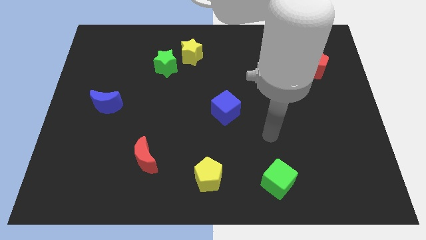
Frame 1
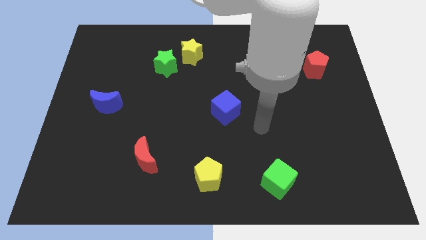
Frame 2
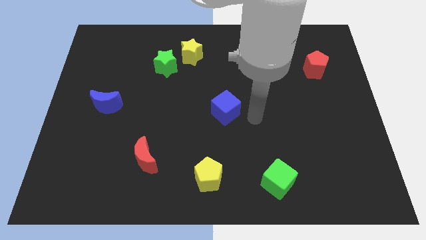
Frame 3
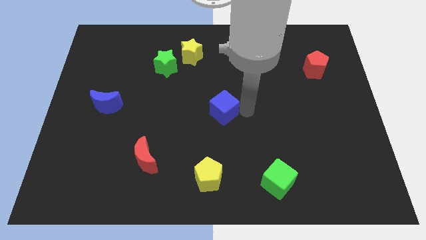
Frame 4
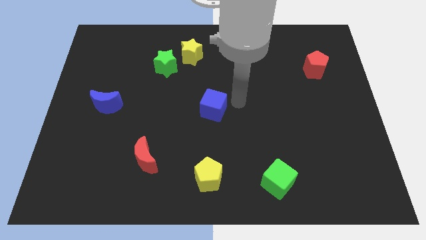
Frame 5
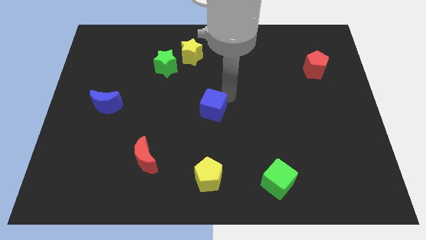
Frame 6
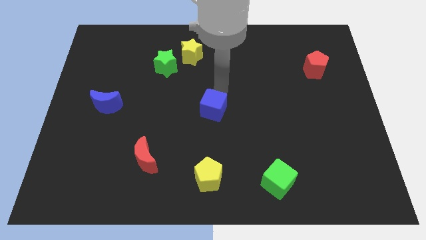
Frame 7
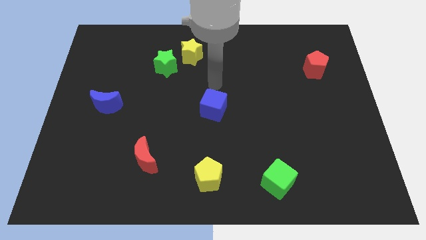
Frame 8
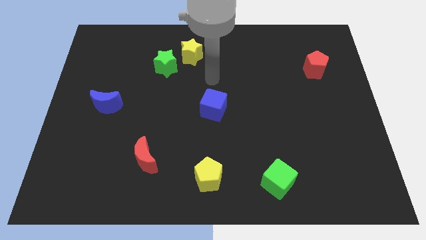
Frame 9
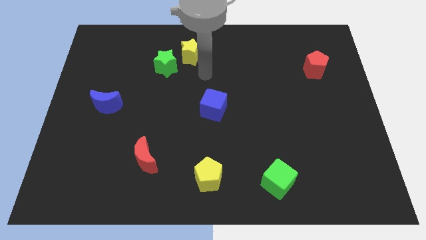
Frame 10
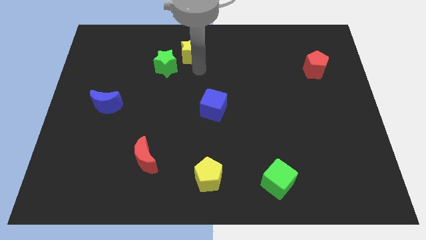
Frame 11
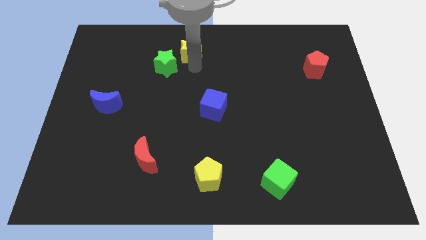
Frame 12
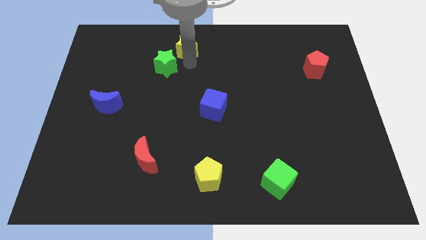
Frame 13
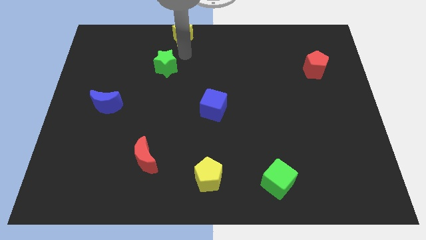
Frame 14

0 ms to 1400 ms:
separate the green star from the yellow star

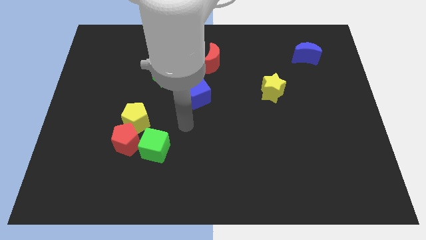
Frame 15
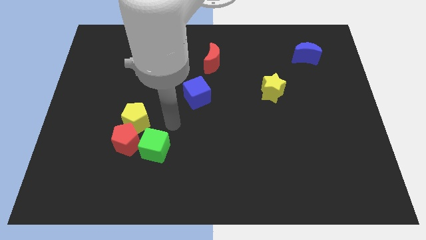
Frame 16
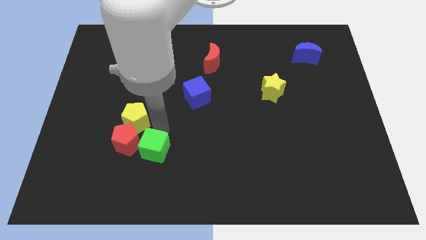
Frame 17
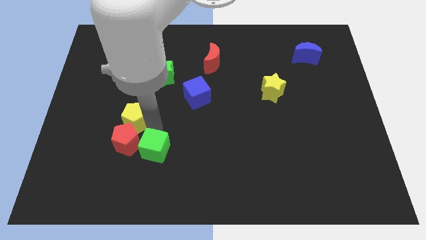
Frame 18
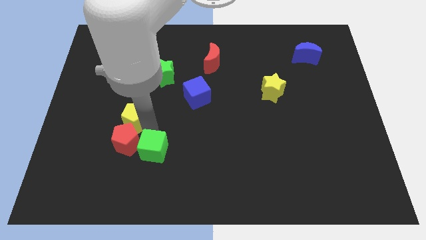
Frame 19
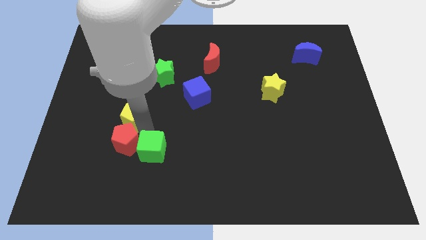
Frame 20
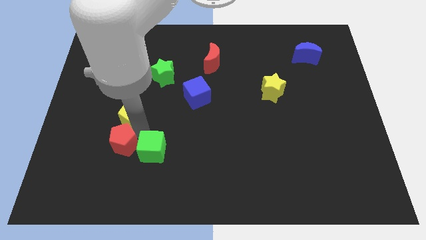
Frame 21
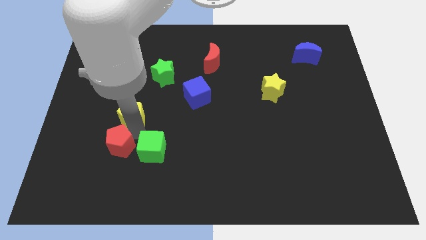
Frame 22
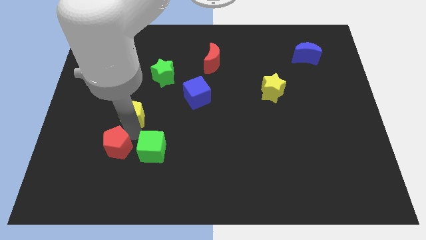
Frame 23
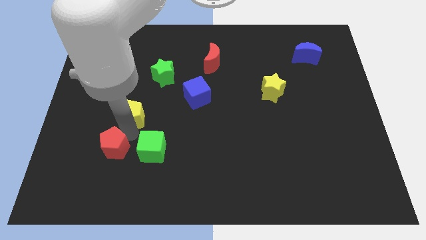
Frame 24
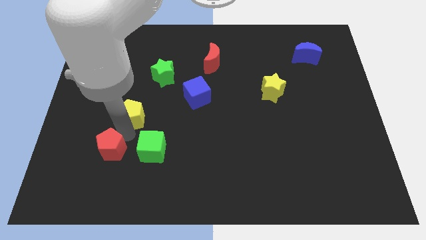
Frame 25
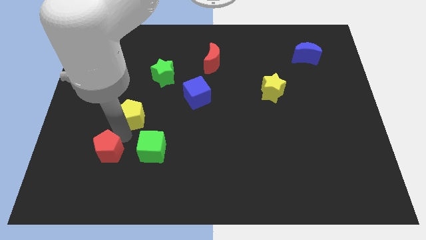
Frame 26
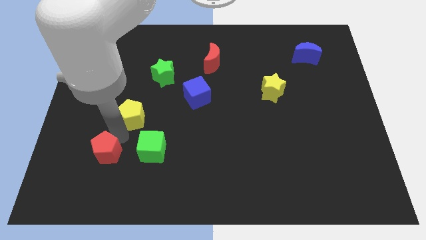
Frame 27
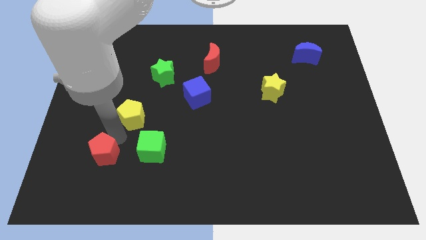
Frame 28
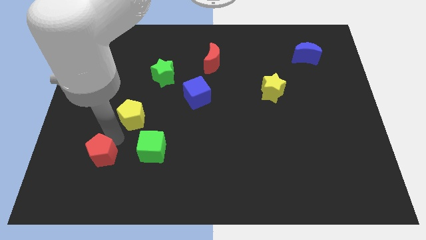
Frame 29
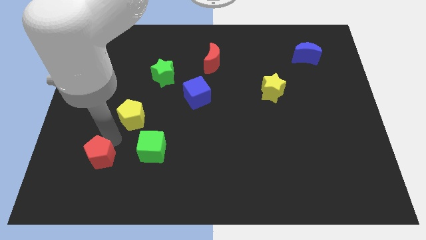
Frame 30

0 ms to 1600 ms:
pull the red pentagon apart from the yellow pentagon and green cube

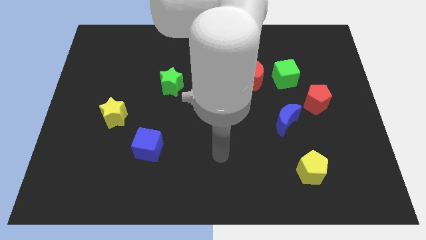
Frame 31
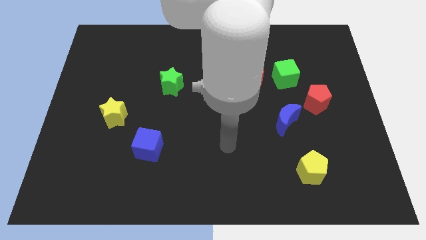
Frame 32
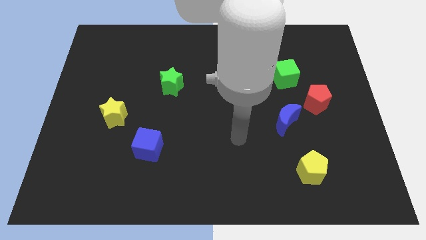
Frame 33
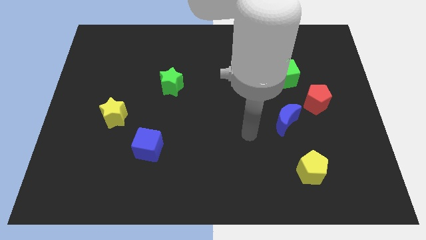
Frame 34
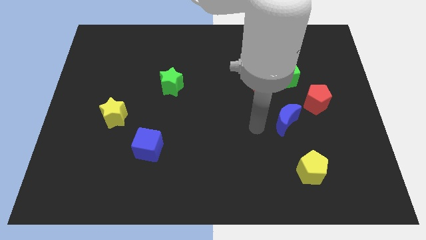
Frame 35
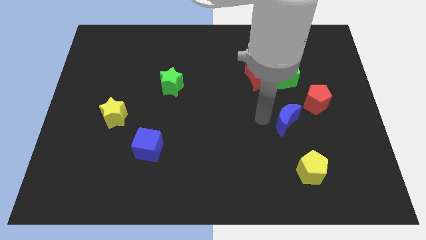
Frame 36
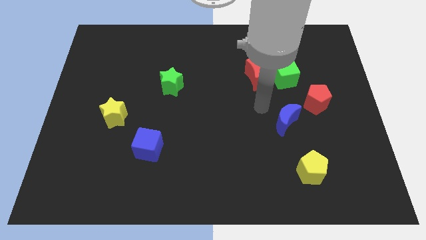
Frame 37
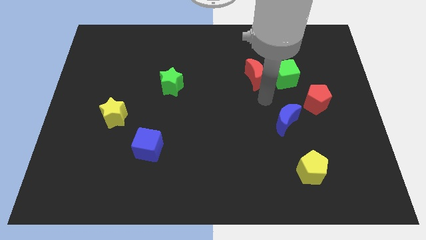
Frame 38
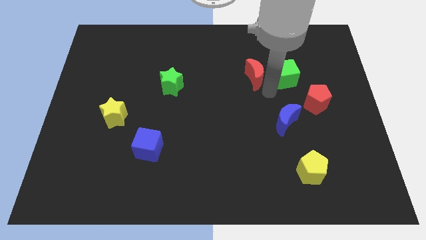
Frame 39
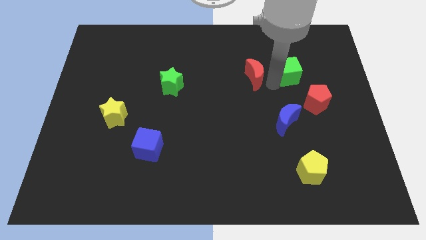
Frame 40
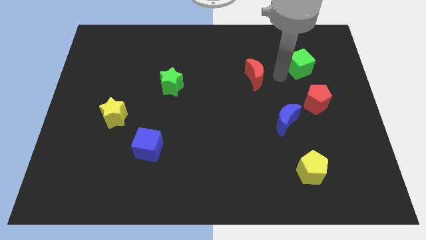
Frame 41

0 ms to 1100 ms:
move the red moon away from the green cube

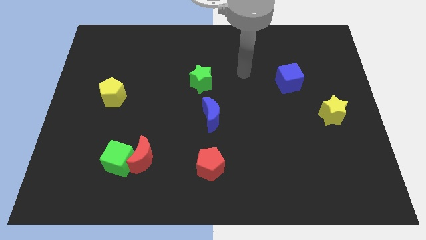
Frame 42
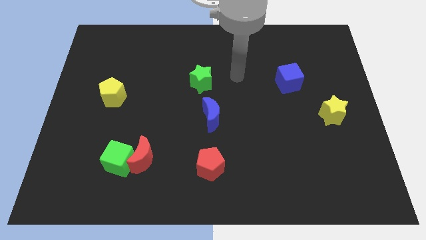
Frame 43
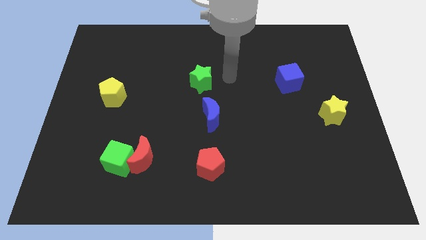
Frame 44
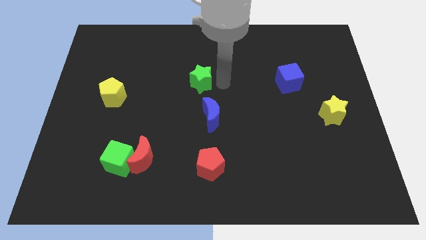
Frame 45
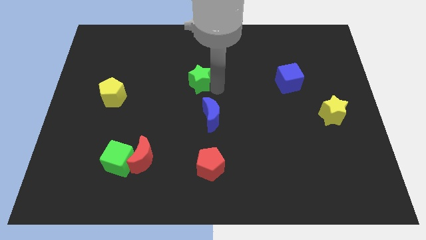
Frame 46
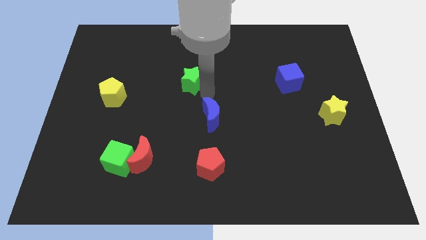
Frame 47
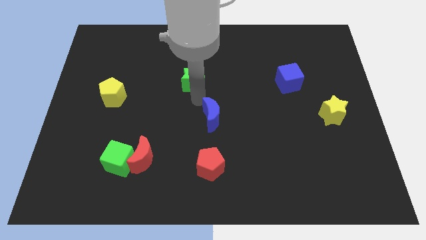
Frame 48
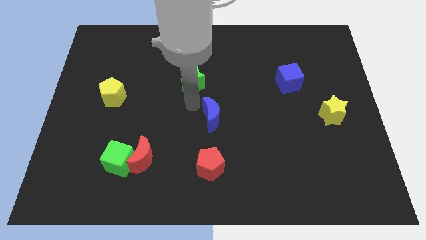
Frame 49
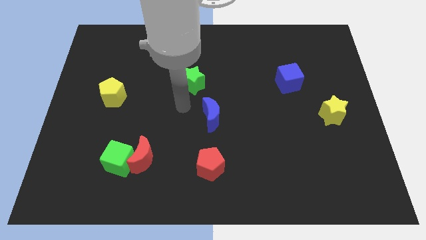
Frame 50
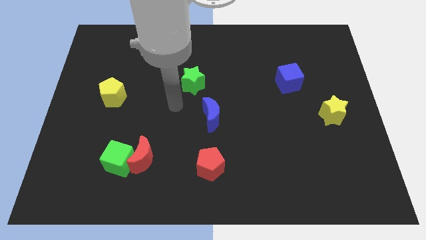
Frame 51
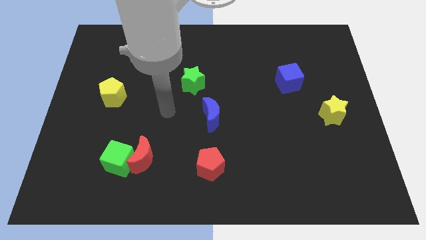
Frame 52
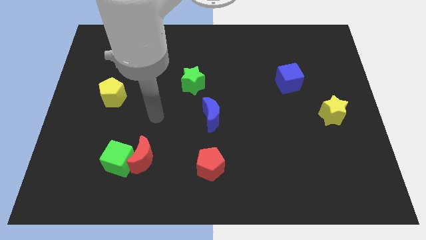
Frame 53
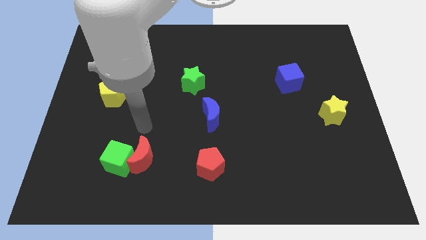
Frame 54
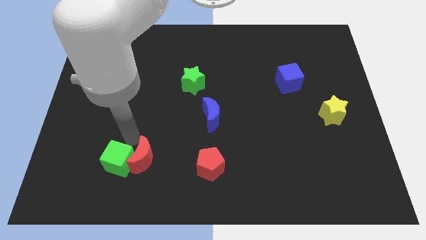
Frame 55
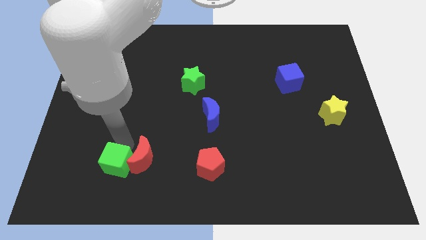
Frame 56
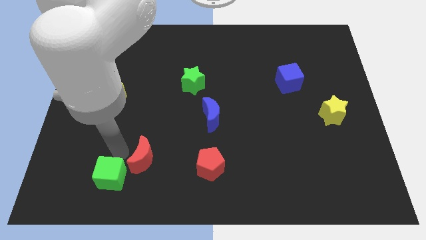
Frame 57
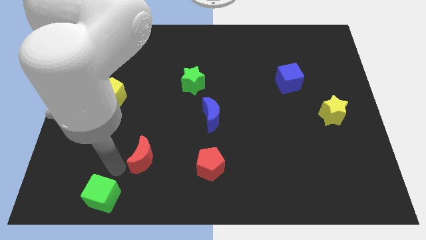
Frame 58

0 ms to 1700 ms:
separate the red moon from the green cube

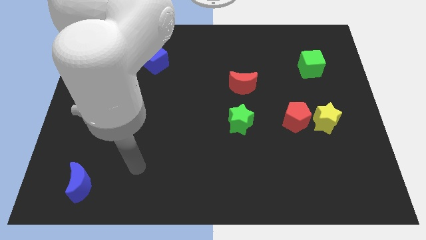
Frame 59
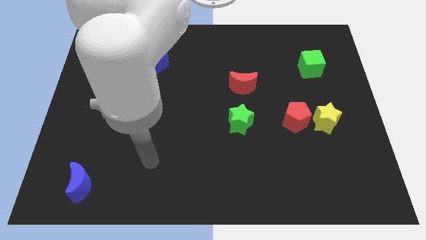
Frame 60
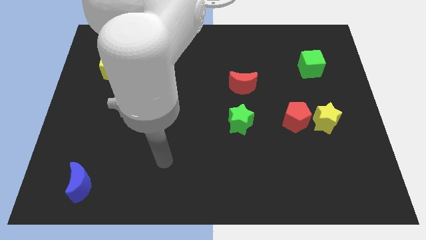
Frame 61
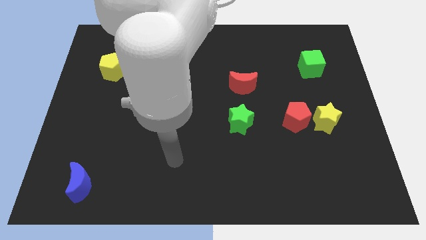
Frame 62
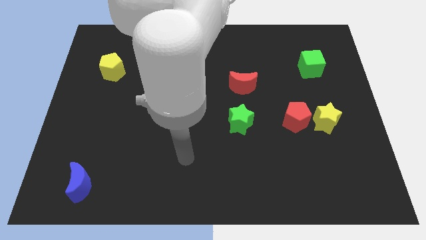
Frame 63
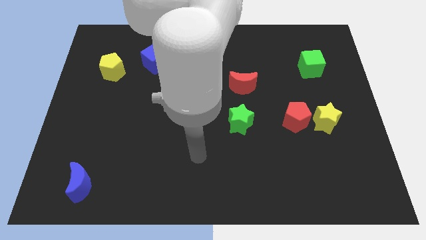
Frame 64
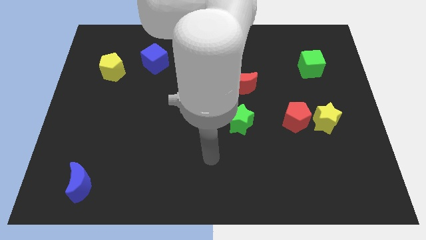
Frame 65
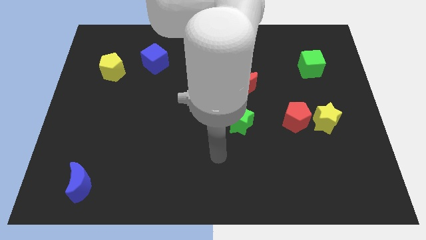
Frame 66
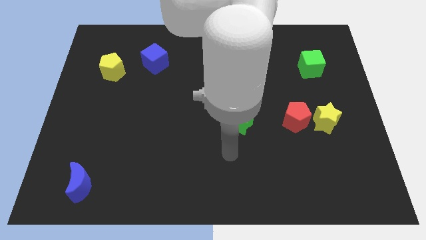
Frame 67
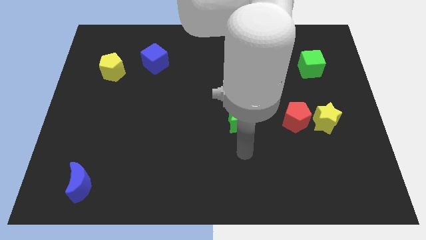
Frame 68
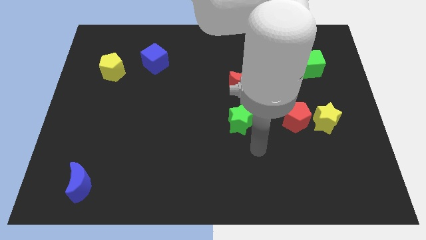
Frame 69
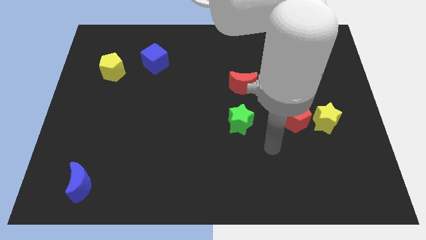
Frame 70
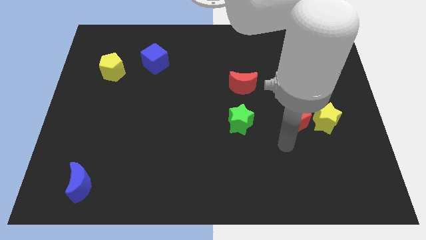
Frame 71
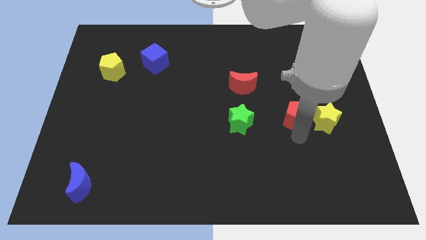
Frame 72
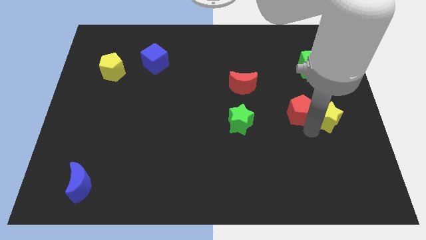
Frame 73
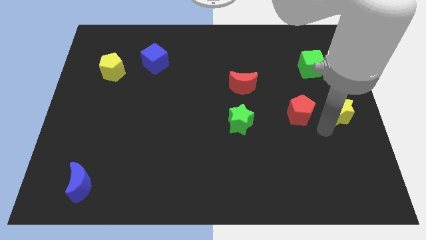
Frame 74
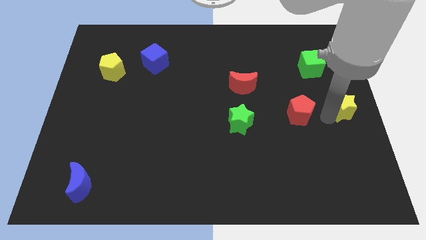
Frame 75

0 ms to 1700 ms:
move the red pentagon away from the yellow star

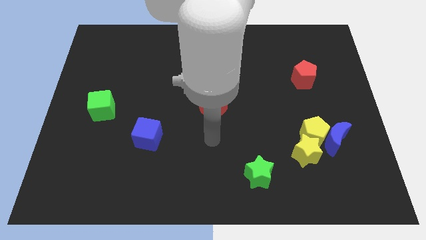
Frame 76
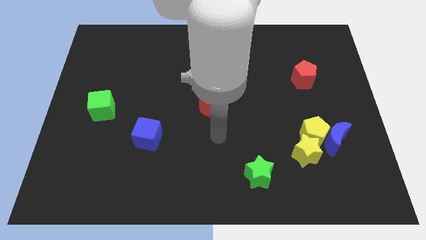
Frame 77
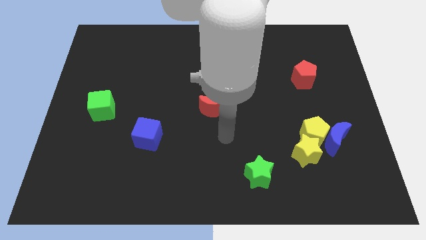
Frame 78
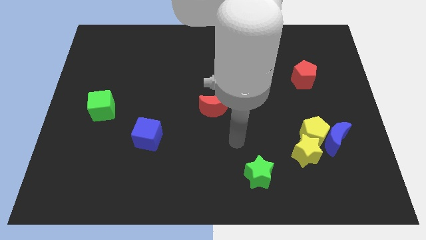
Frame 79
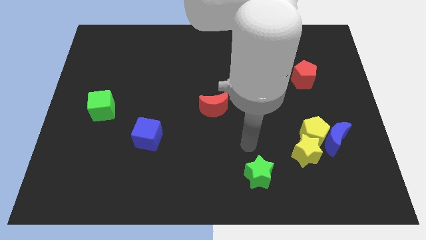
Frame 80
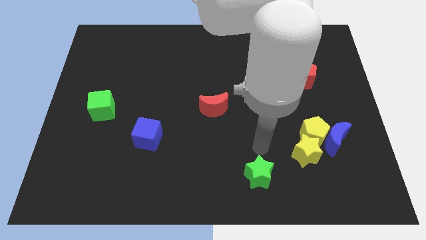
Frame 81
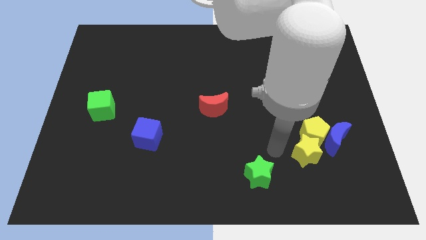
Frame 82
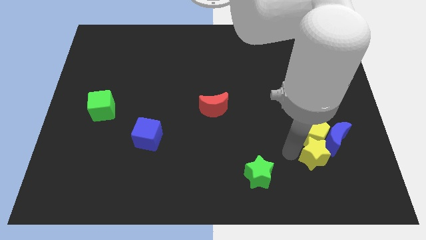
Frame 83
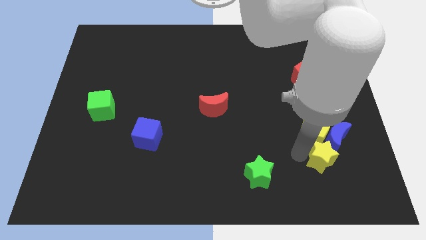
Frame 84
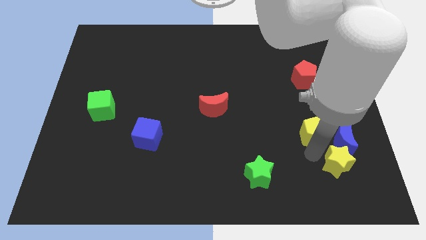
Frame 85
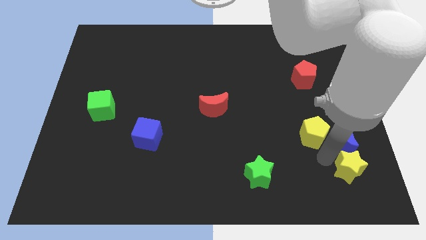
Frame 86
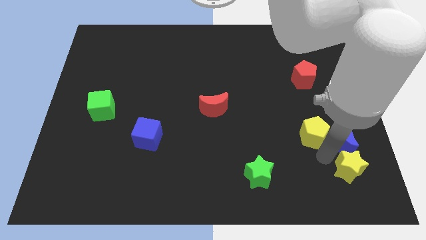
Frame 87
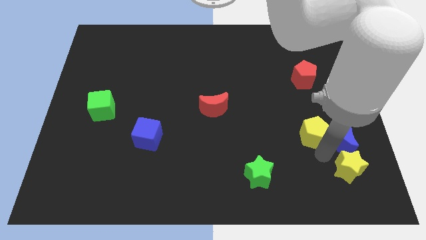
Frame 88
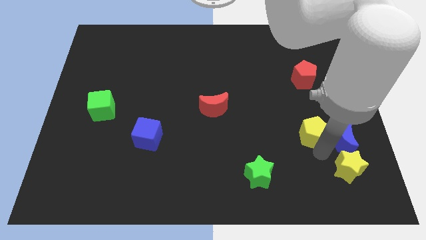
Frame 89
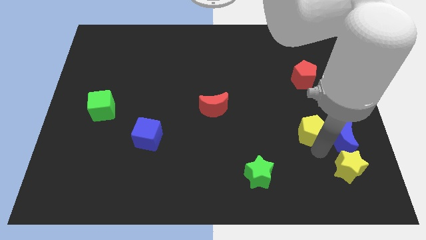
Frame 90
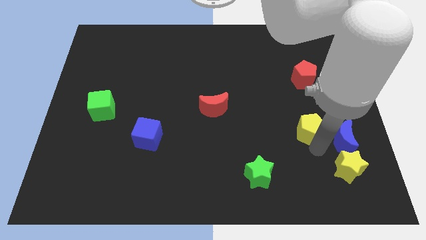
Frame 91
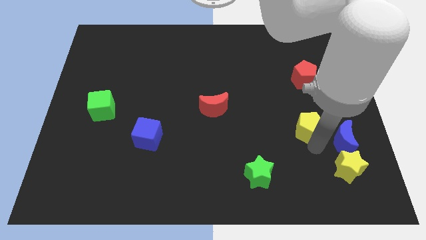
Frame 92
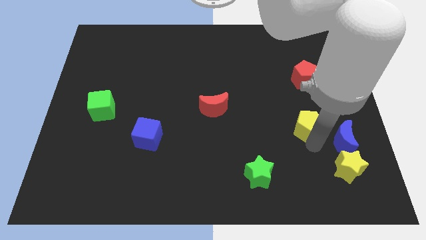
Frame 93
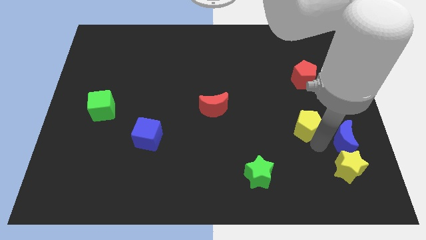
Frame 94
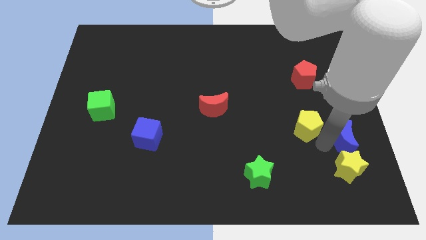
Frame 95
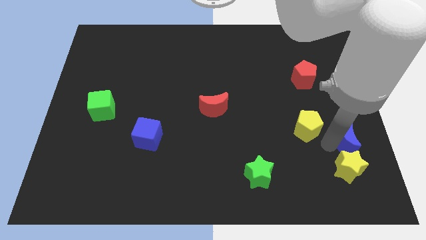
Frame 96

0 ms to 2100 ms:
move the yellow pentagon away from the blue moon and yellow star
